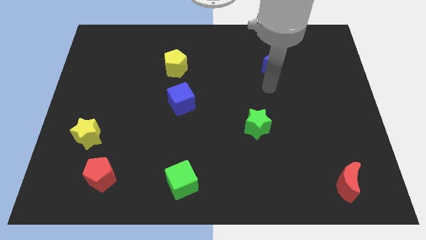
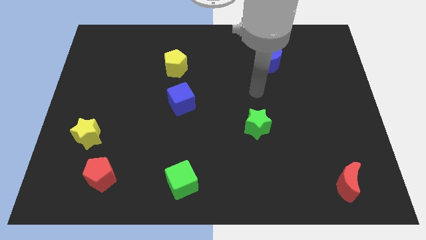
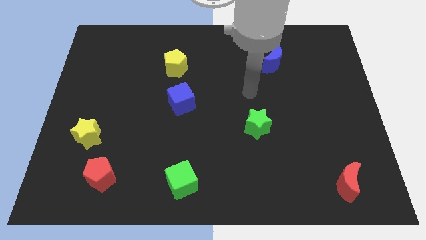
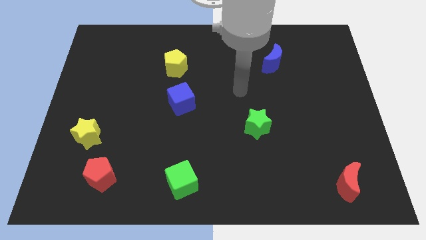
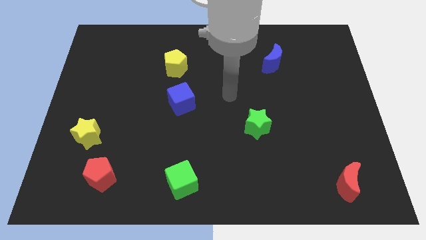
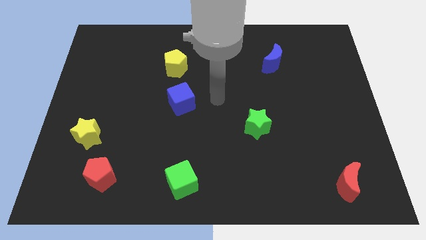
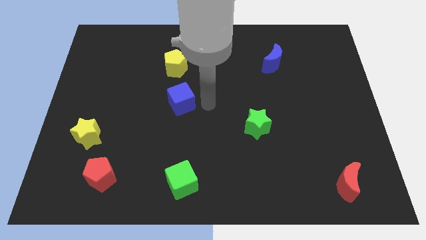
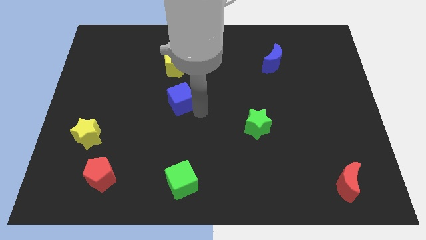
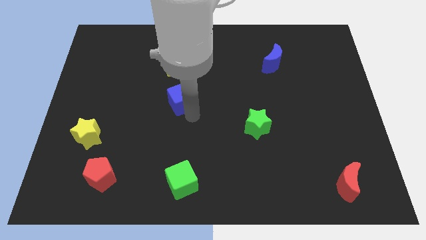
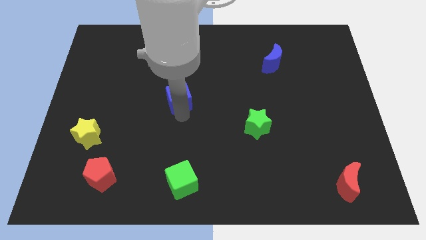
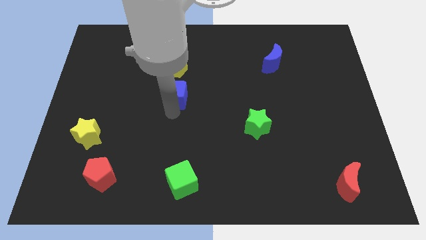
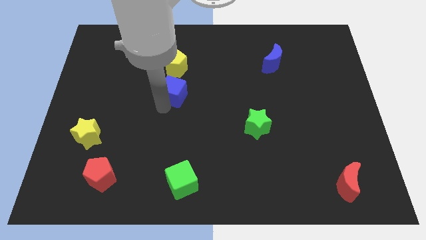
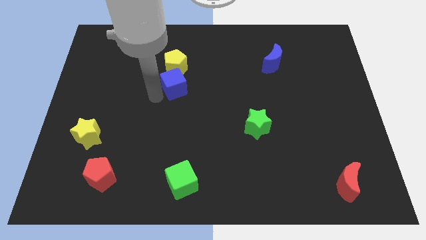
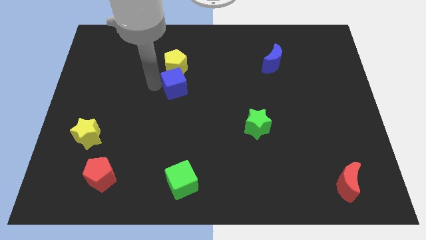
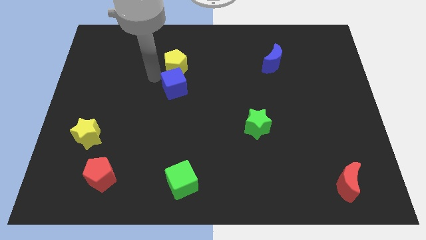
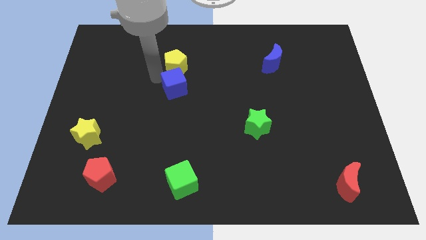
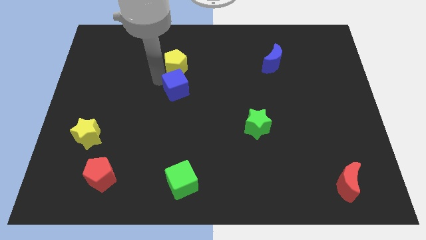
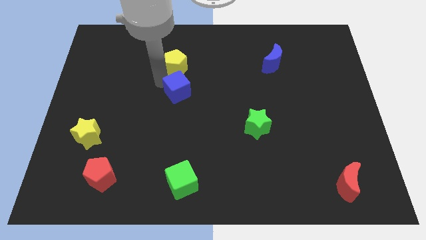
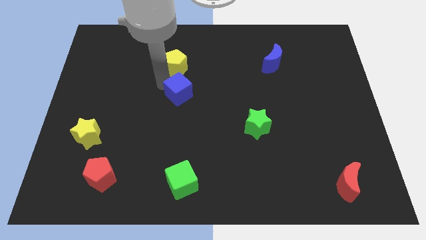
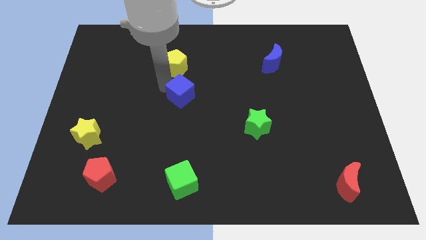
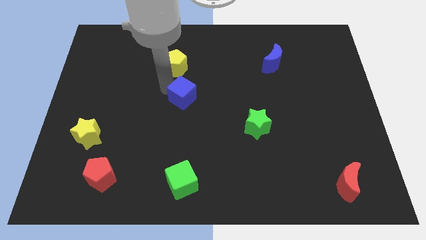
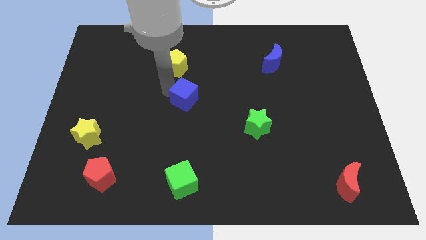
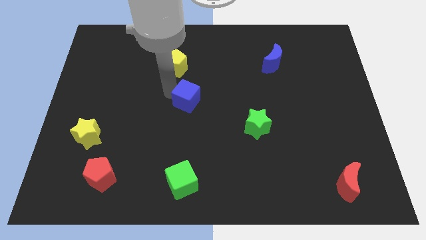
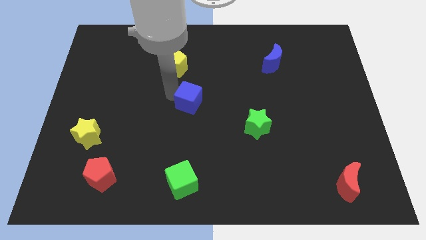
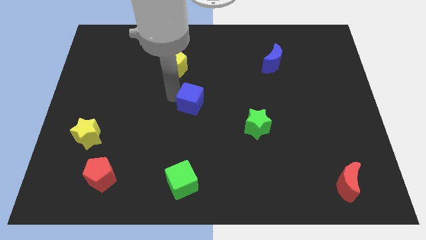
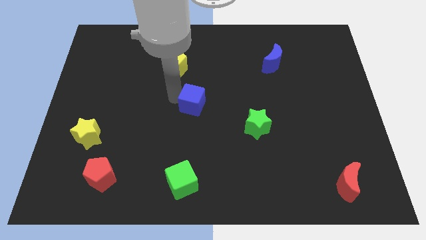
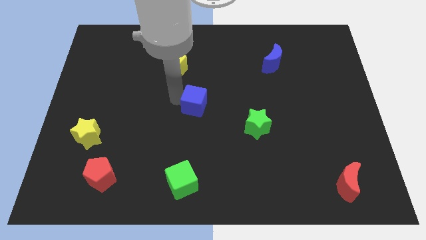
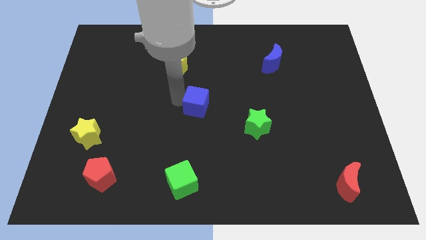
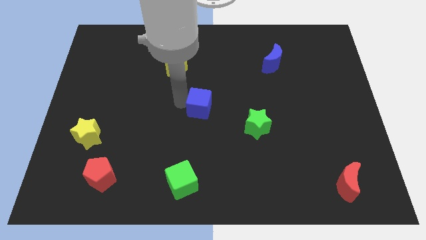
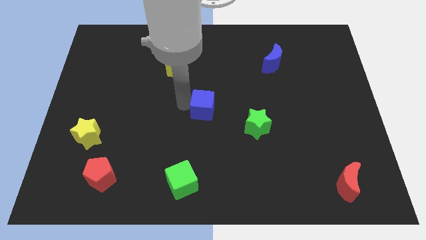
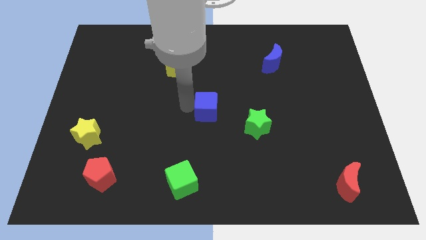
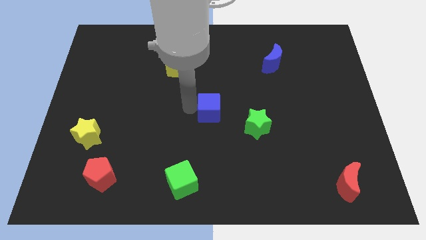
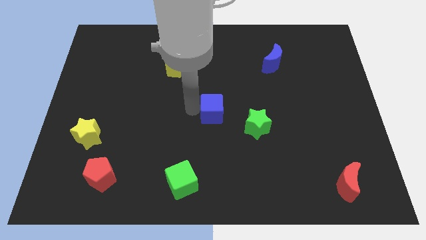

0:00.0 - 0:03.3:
move the blue cube a bit to the right

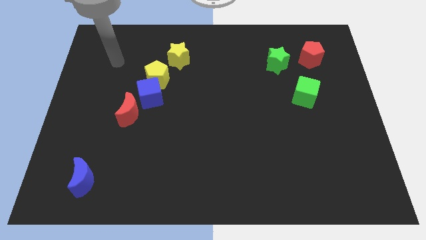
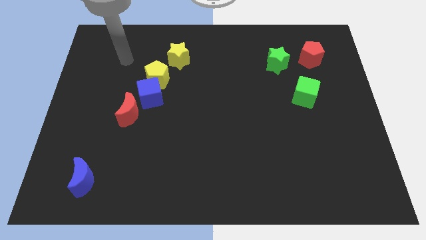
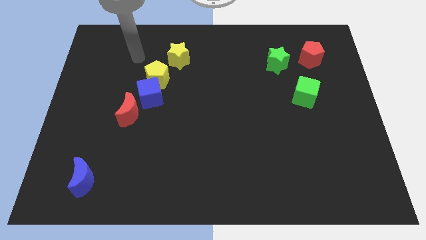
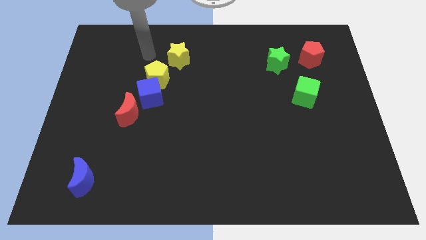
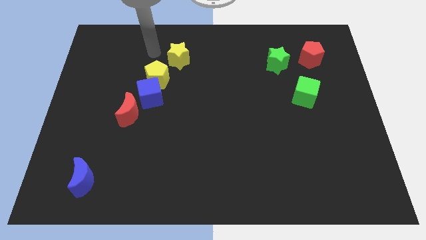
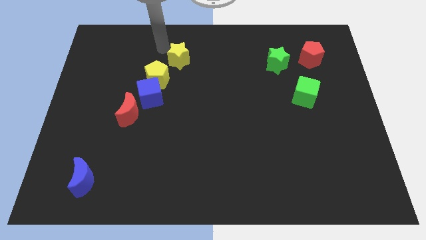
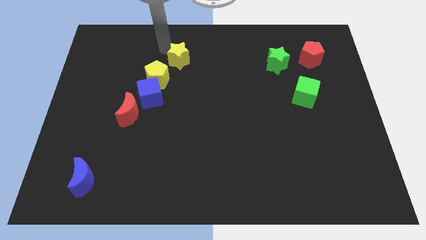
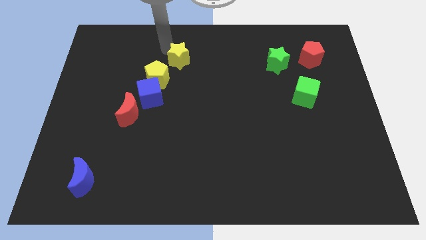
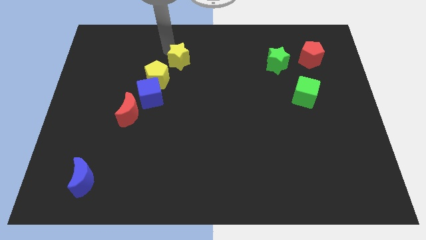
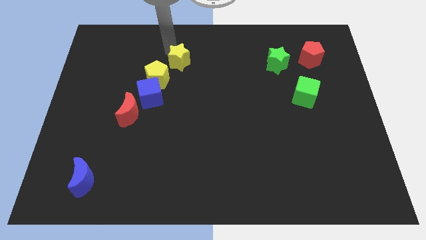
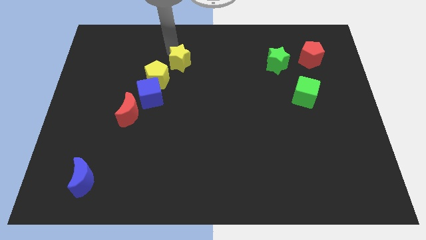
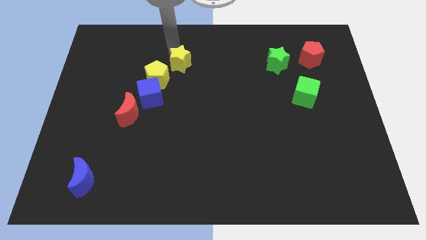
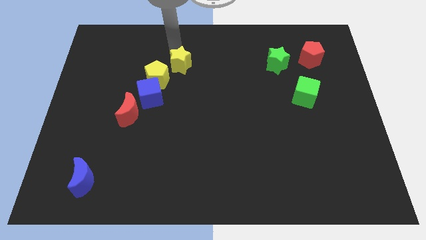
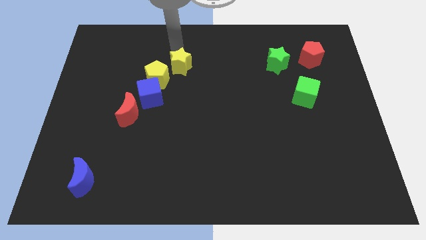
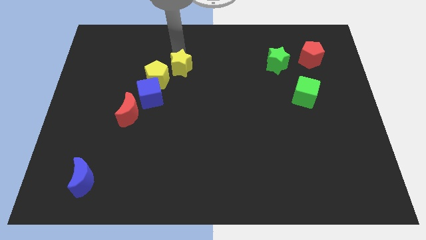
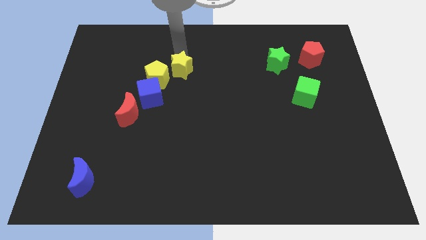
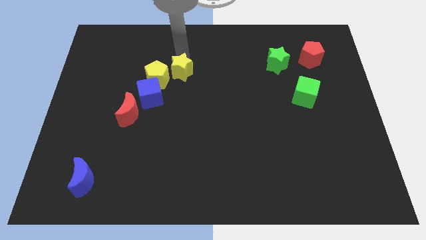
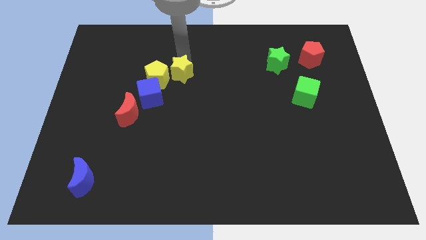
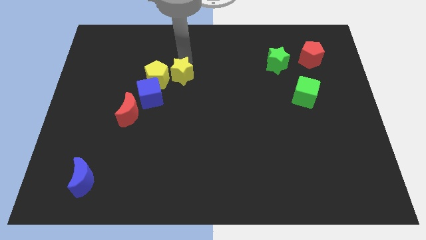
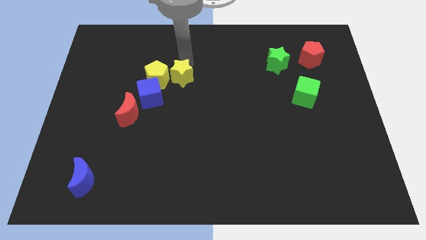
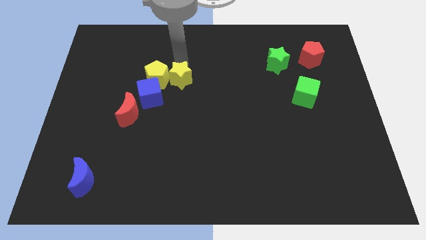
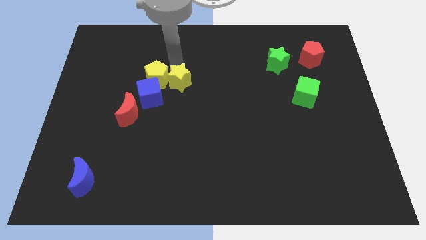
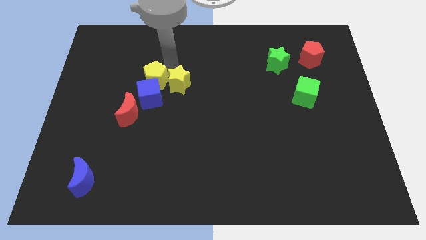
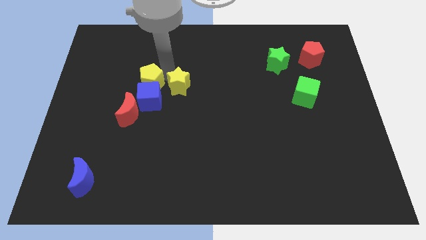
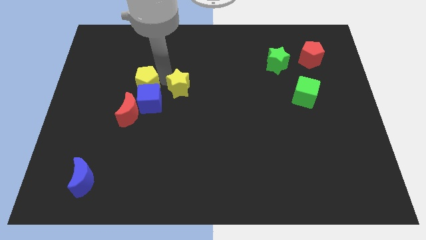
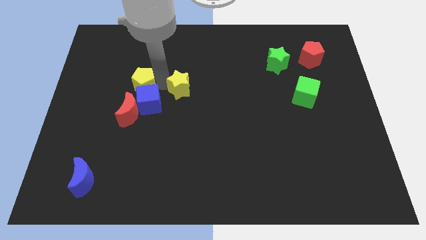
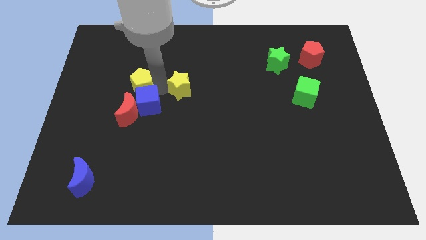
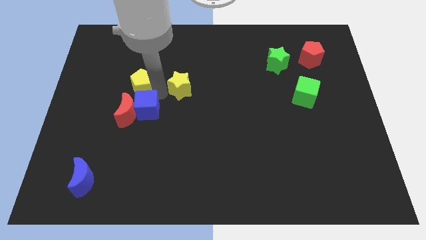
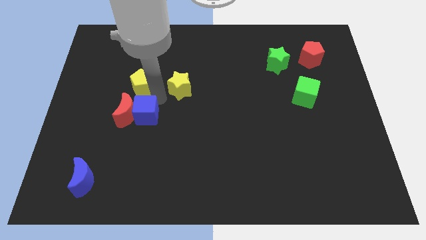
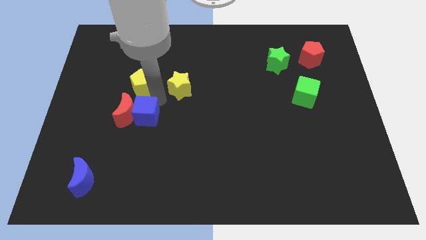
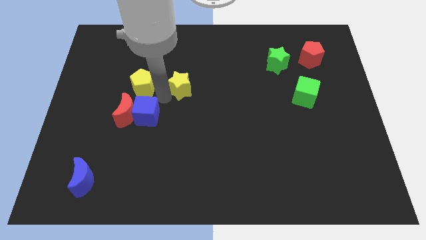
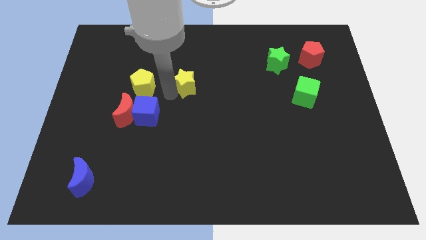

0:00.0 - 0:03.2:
slightly push the yellow star downwards and then to the right

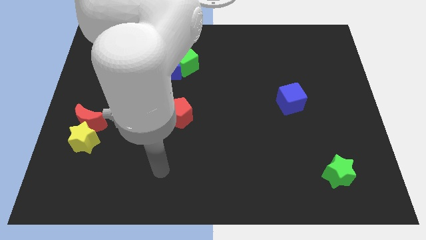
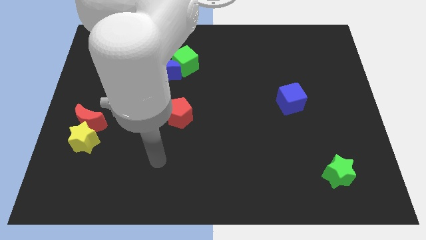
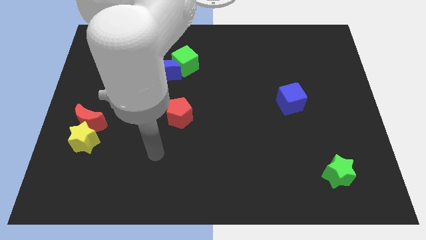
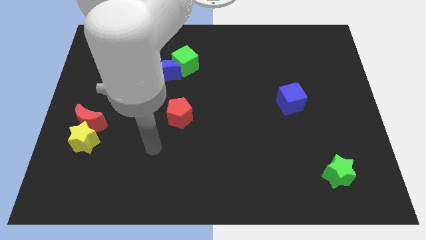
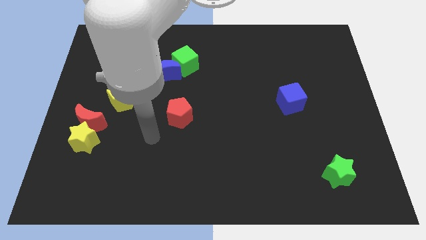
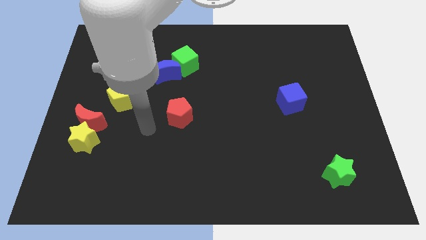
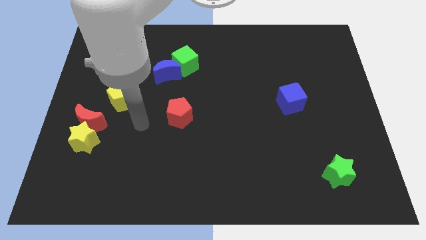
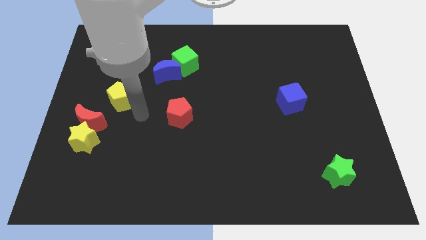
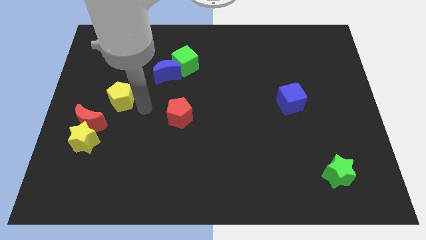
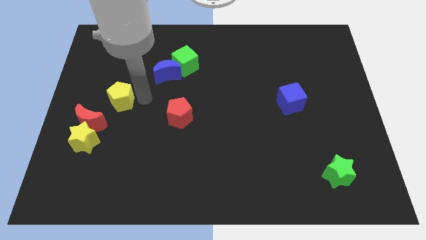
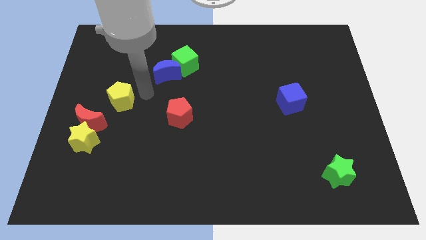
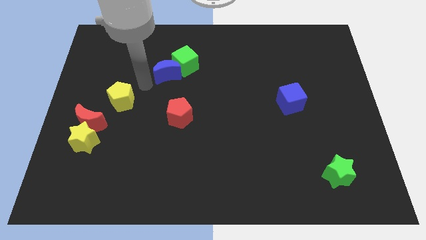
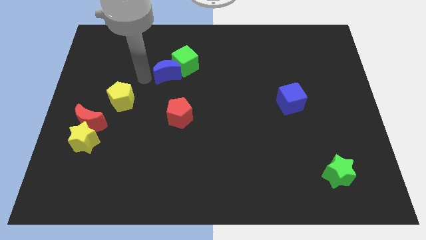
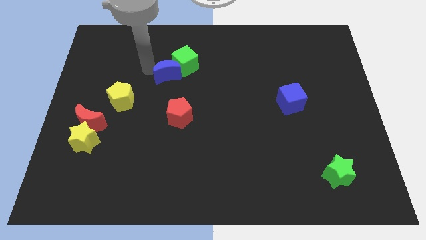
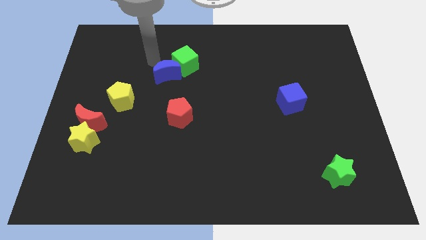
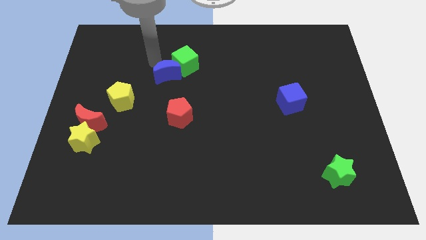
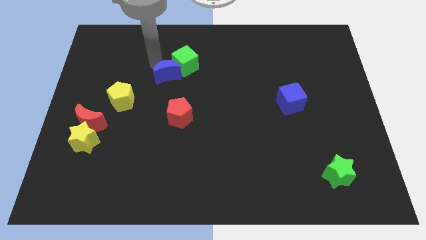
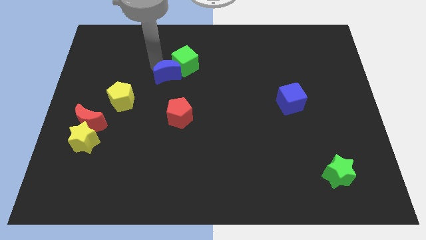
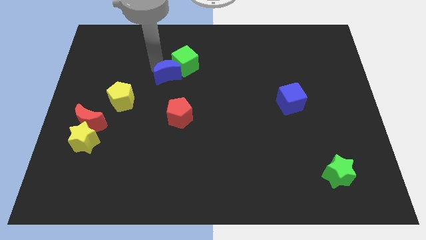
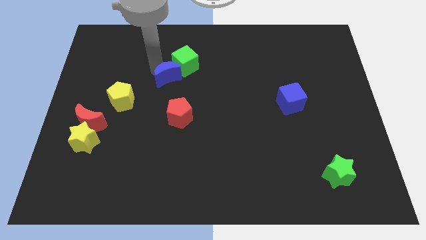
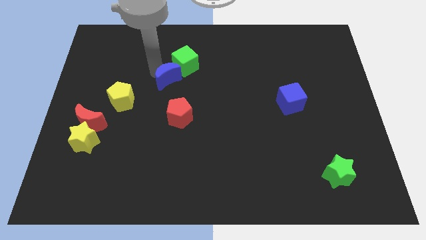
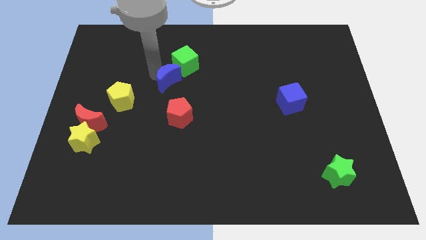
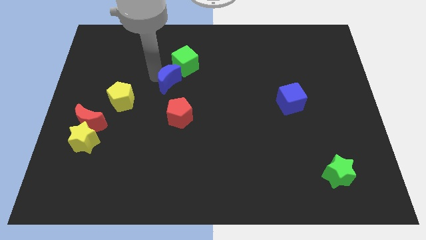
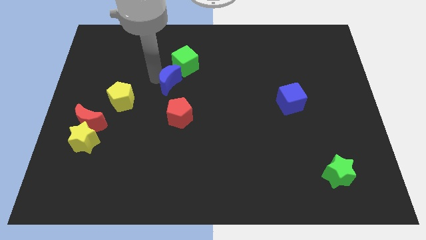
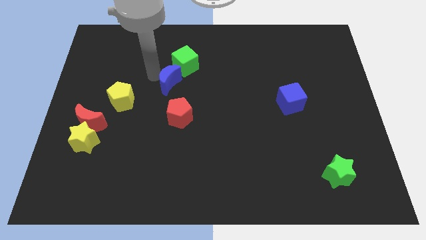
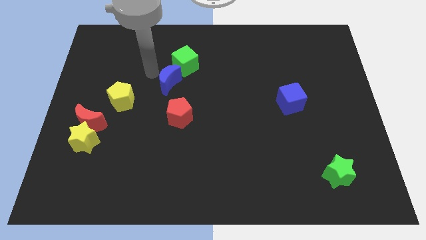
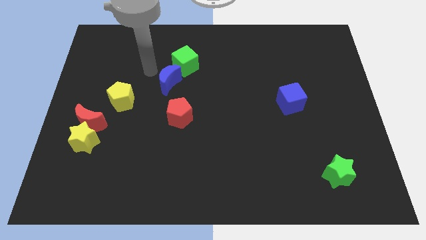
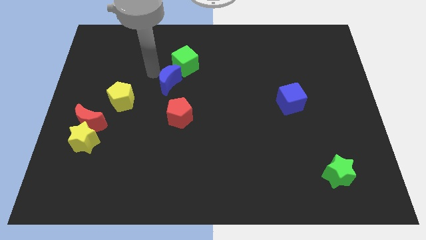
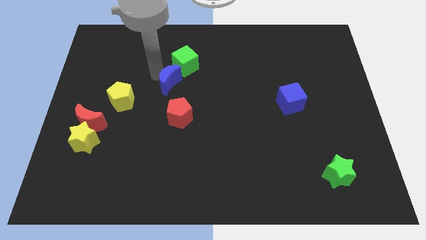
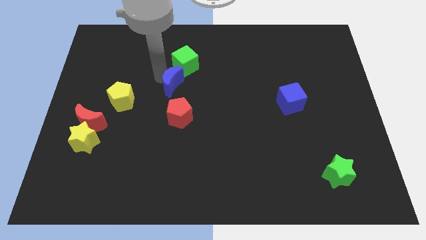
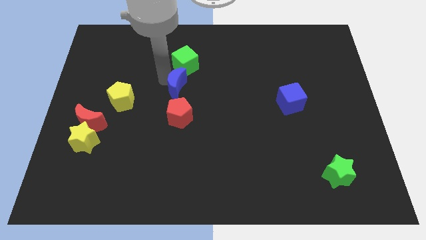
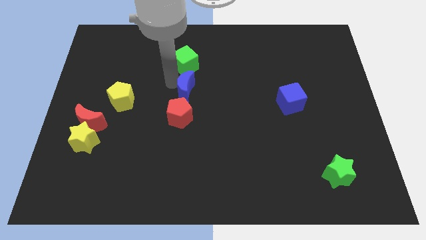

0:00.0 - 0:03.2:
slide the blue moon a little bit down and then to the right
